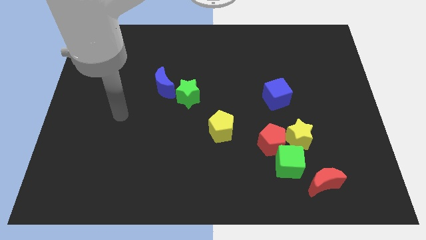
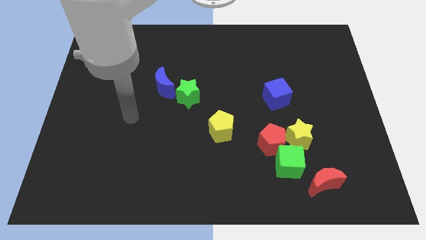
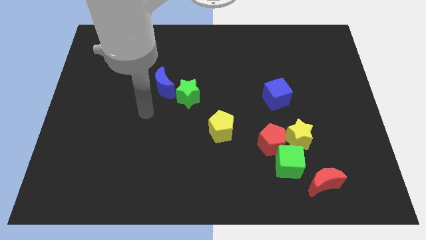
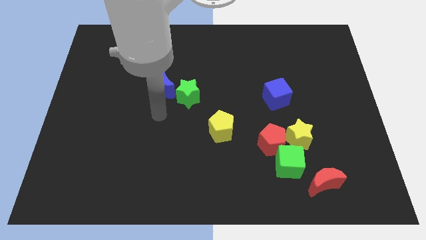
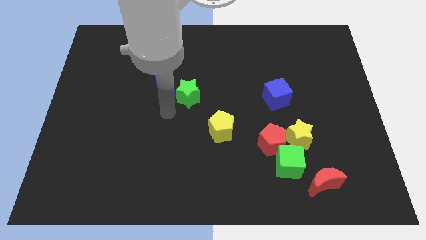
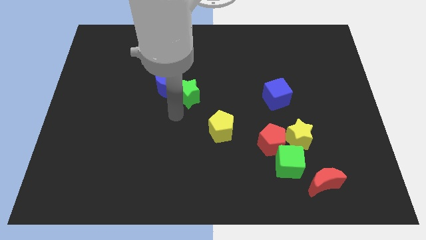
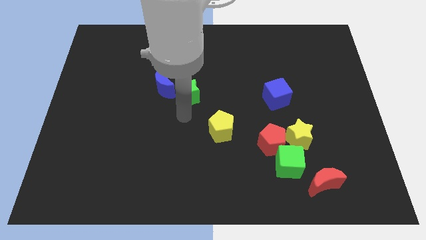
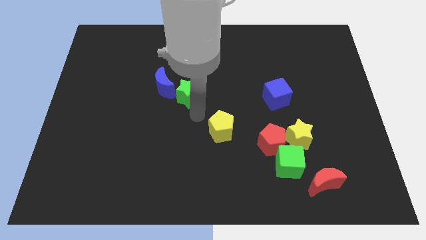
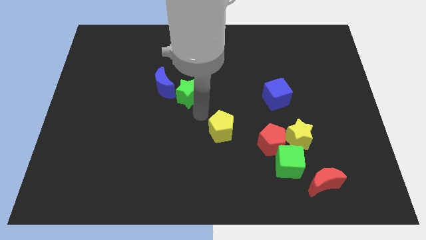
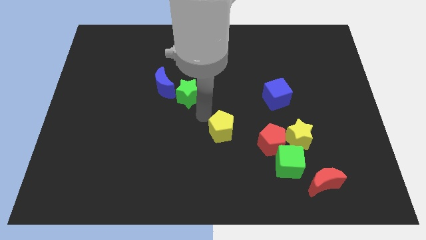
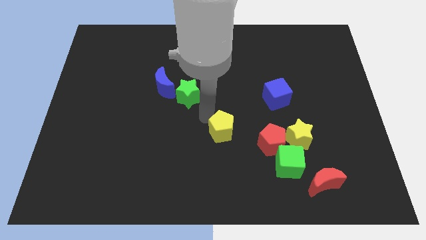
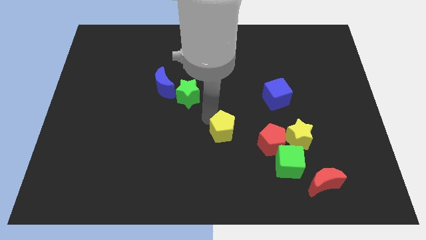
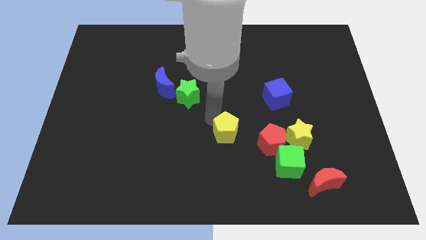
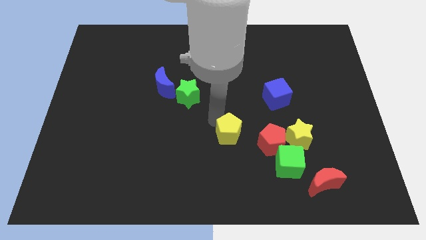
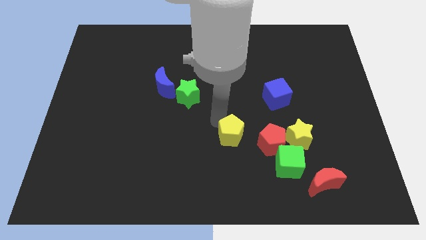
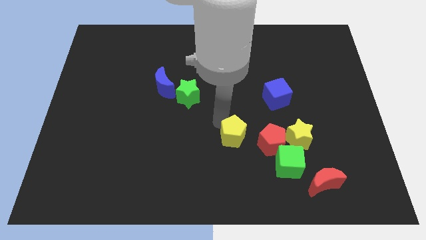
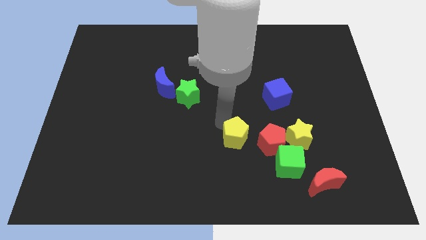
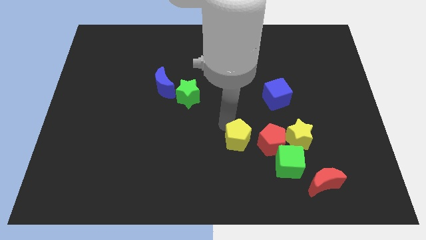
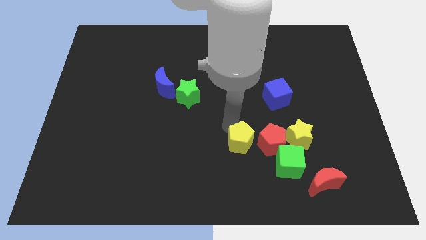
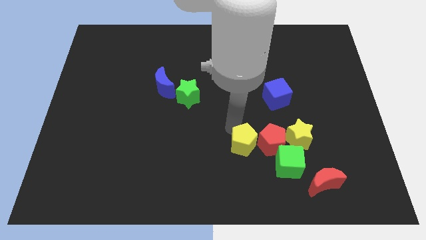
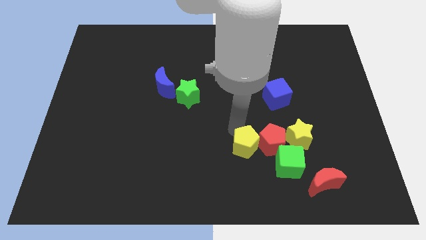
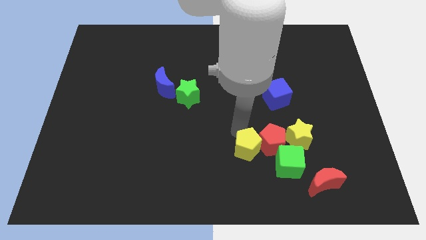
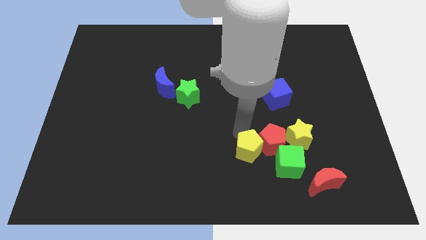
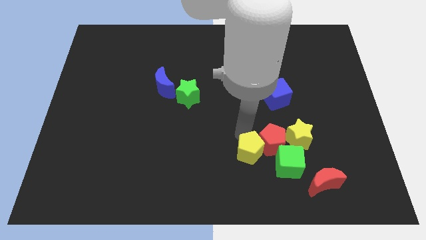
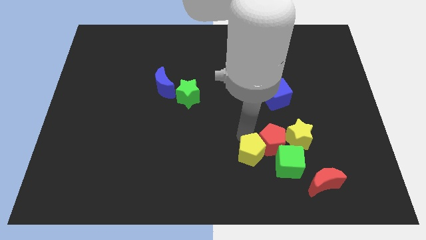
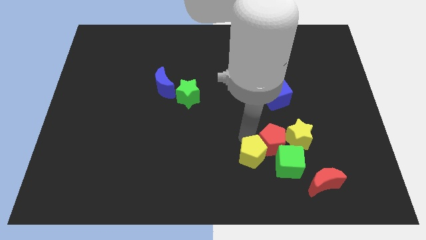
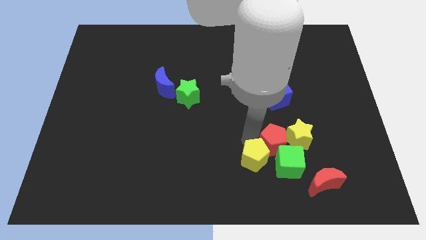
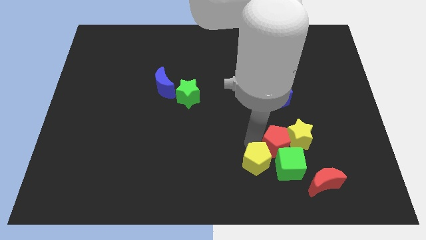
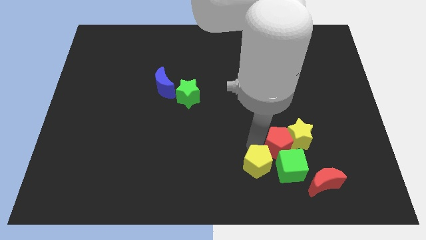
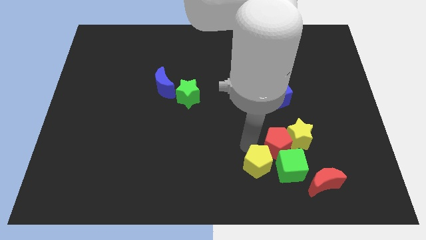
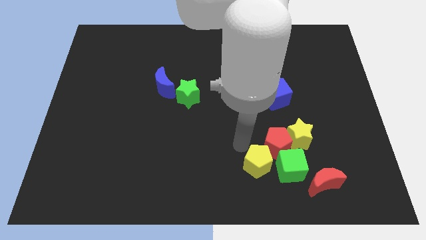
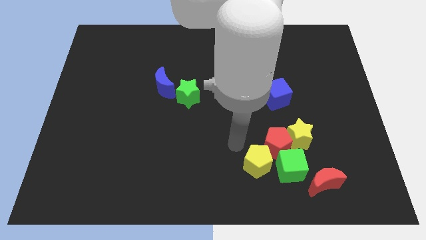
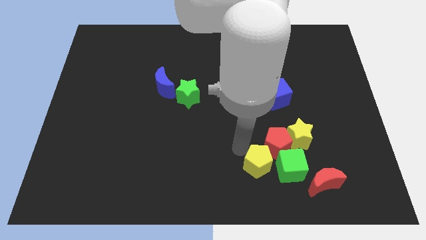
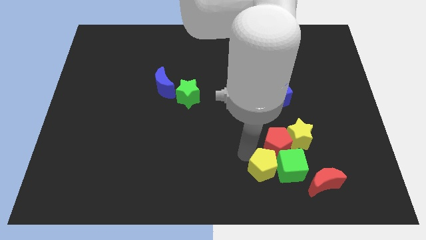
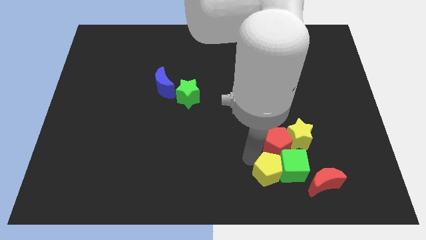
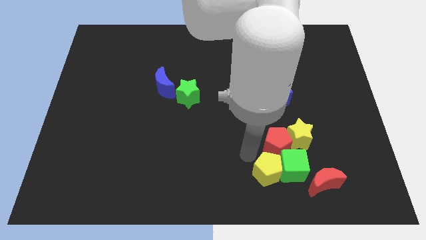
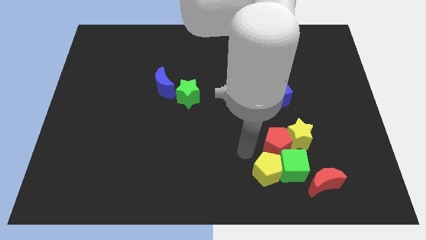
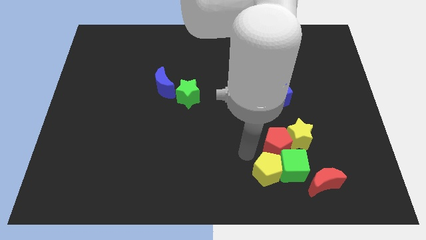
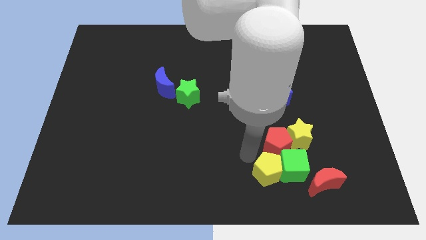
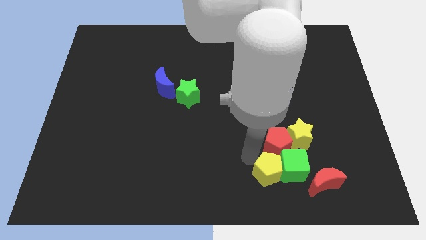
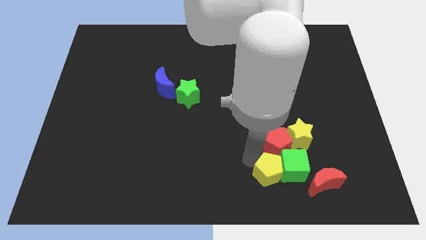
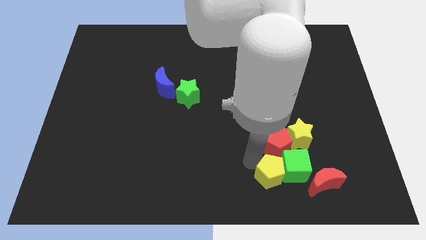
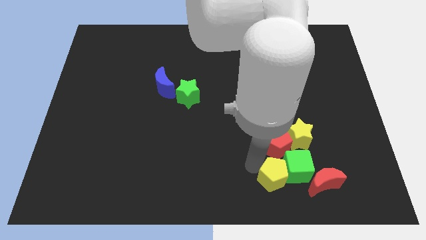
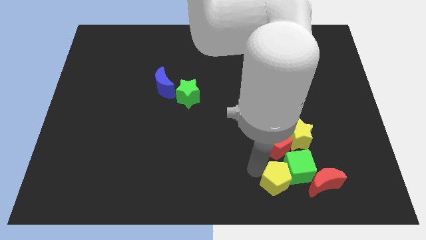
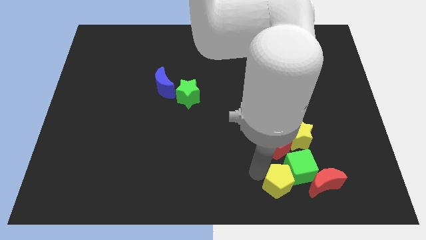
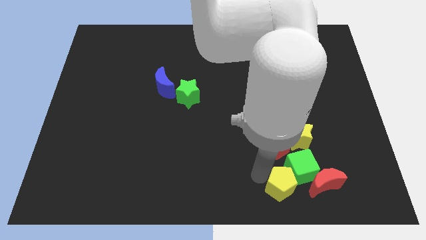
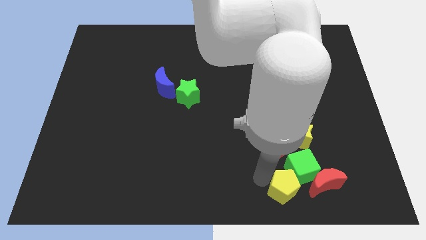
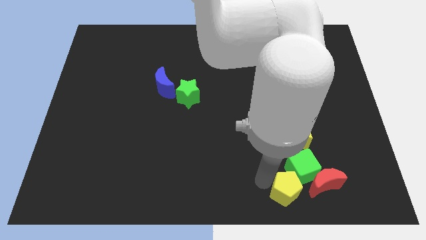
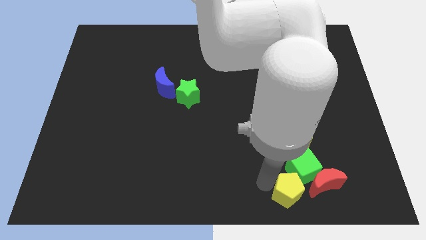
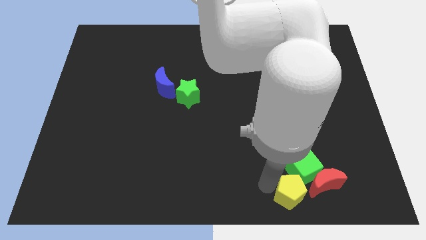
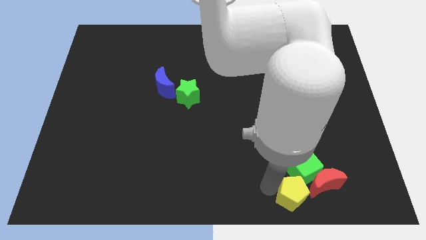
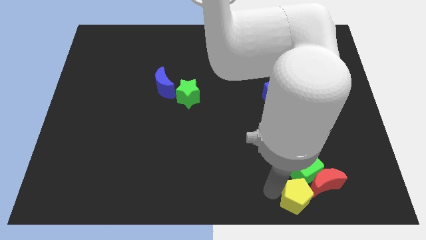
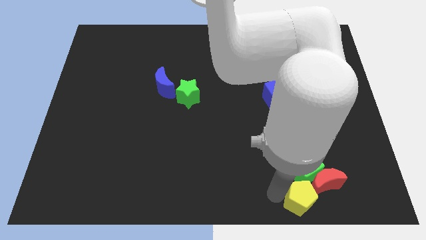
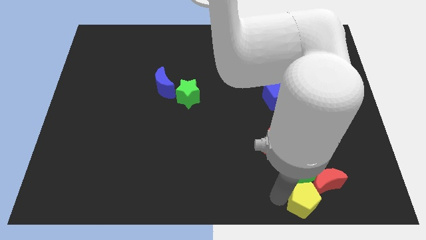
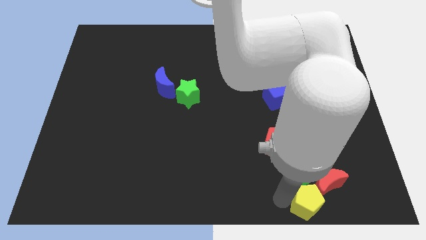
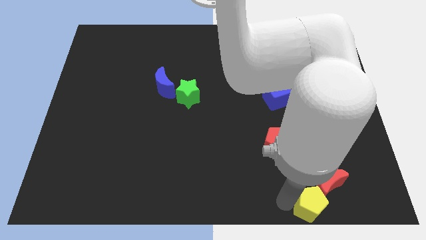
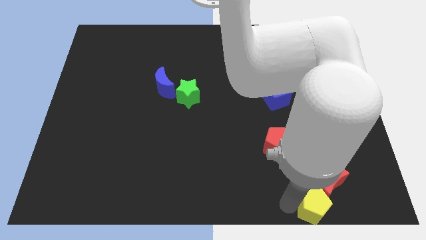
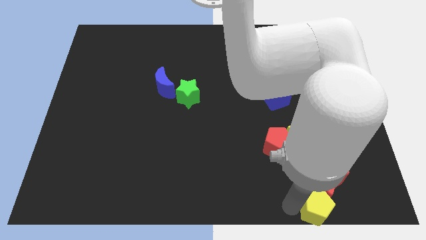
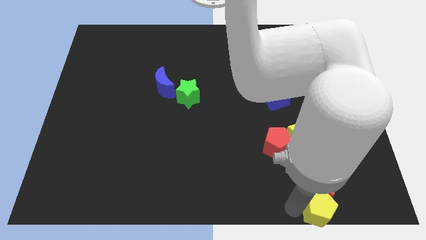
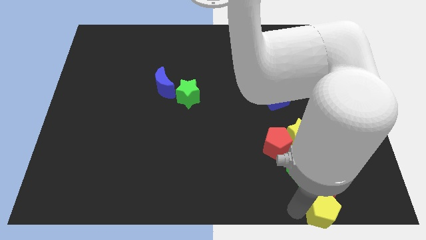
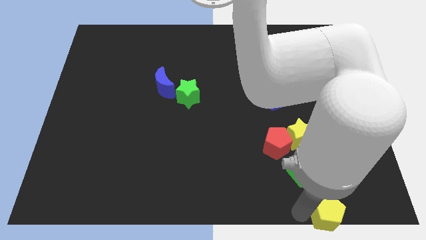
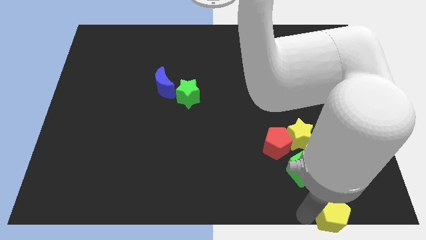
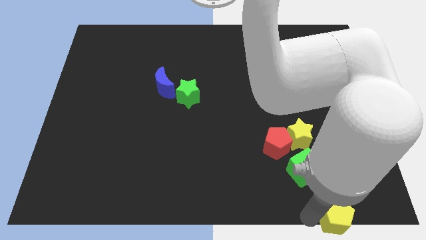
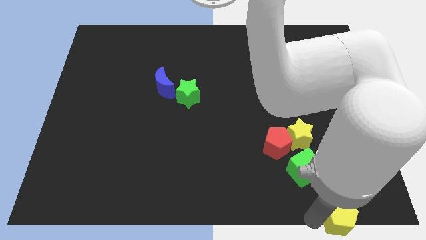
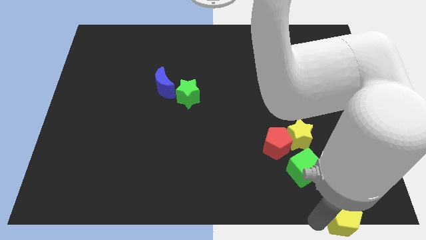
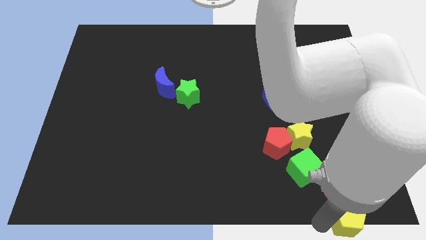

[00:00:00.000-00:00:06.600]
put the yellow pentagon to the lower right corner
